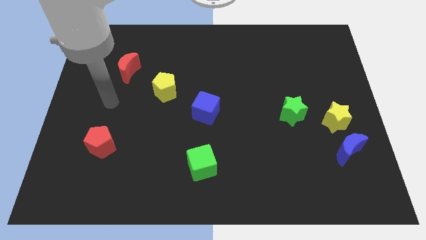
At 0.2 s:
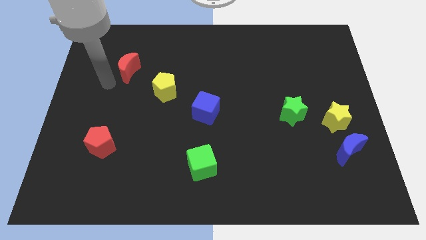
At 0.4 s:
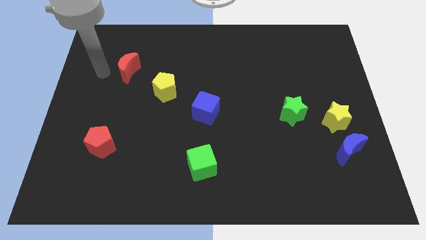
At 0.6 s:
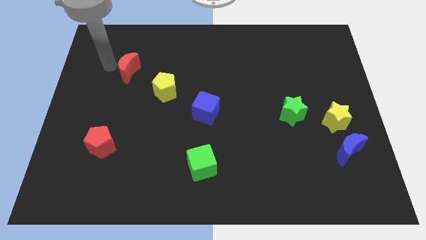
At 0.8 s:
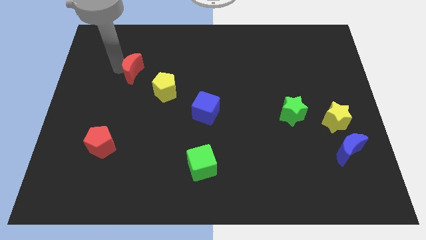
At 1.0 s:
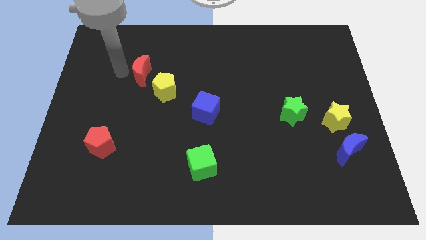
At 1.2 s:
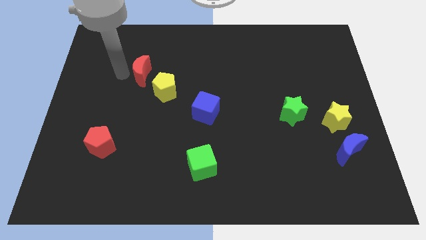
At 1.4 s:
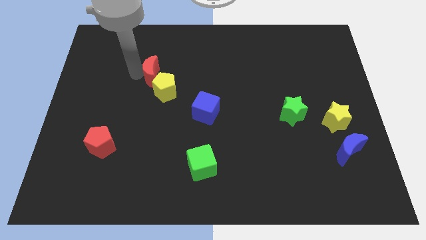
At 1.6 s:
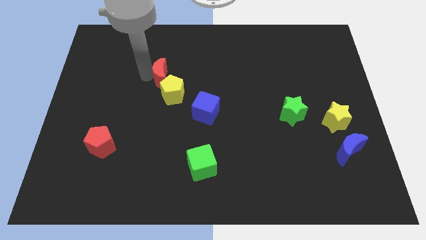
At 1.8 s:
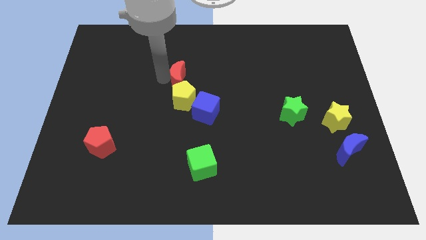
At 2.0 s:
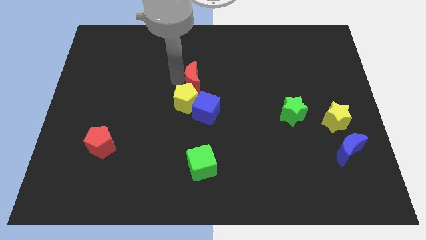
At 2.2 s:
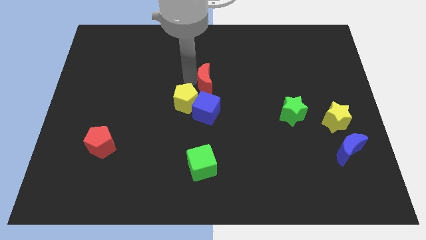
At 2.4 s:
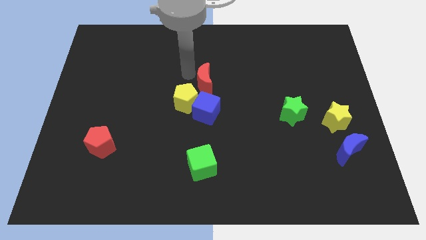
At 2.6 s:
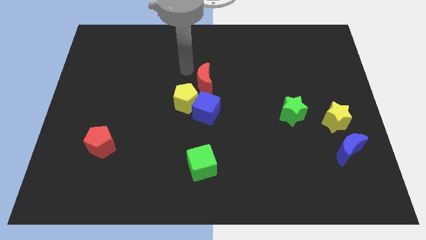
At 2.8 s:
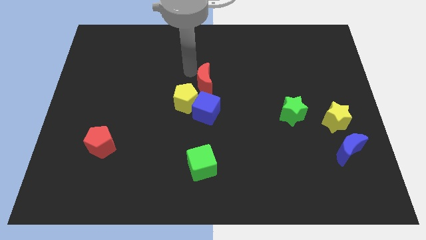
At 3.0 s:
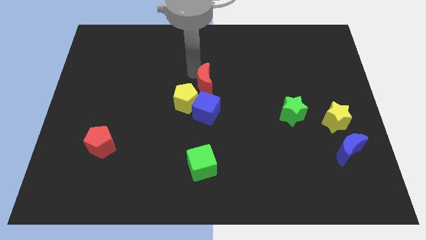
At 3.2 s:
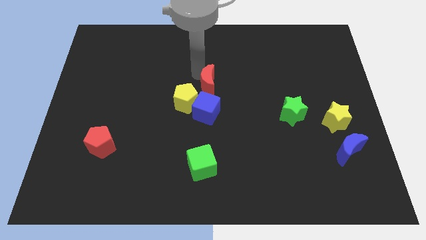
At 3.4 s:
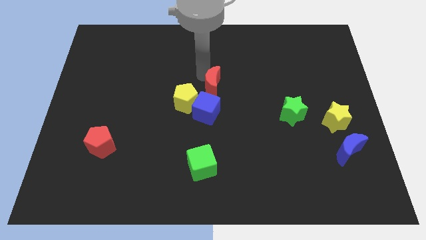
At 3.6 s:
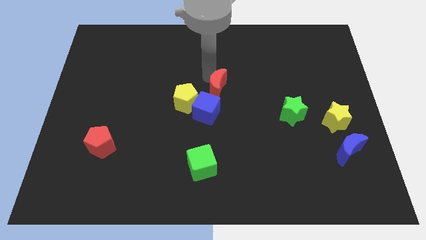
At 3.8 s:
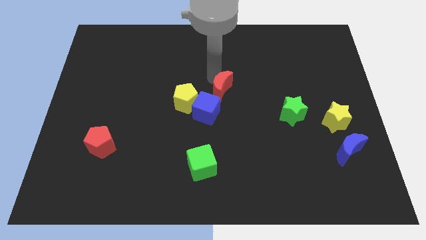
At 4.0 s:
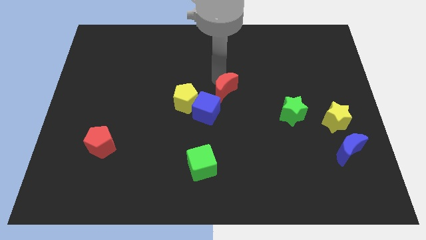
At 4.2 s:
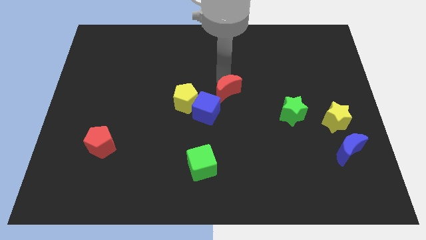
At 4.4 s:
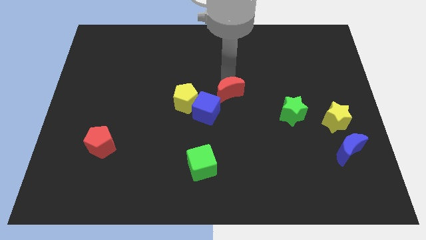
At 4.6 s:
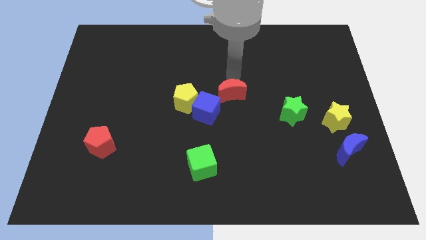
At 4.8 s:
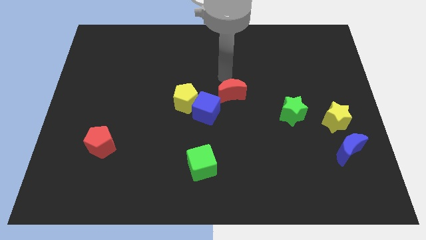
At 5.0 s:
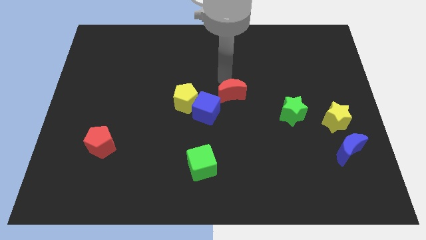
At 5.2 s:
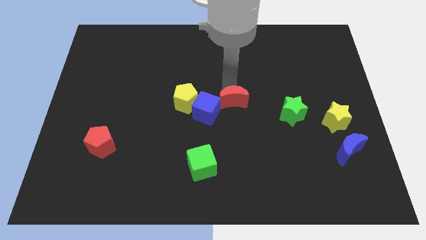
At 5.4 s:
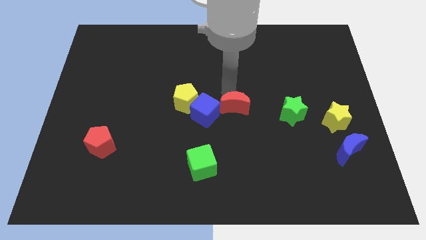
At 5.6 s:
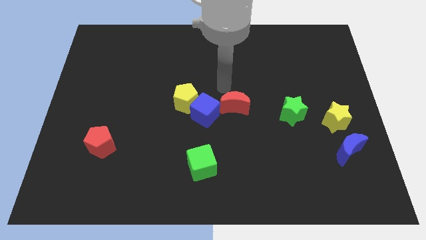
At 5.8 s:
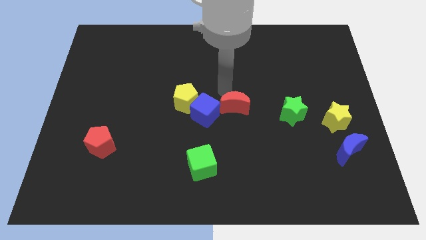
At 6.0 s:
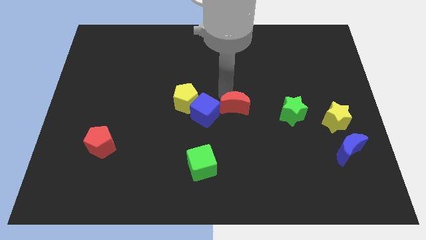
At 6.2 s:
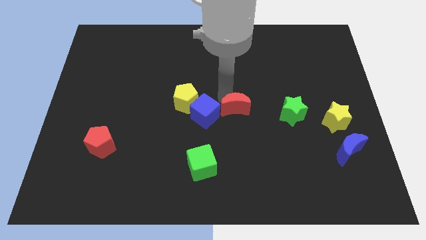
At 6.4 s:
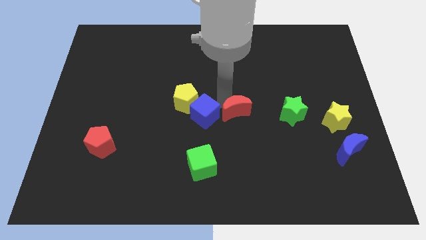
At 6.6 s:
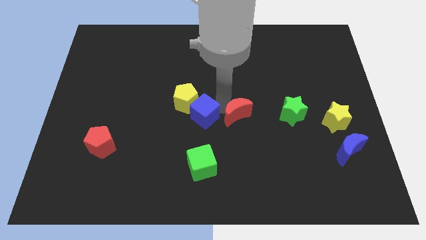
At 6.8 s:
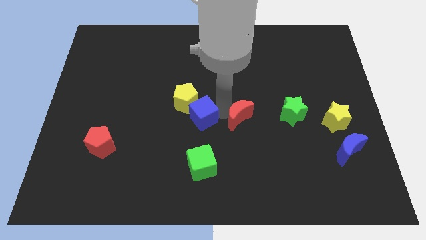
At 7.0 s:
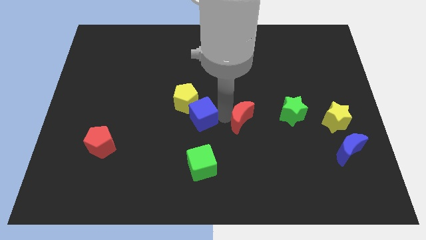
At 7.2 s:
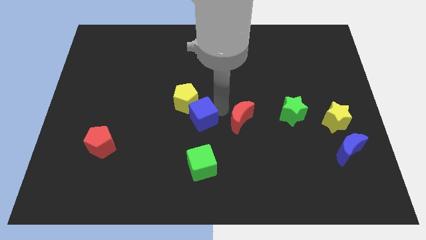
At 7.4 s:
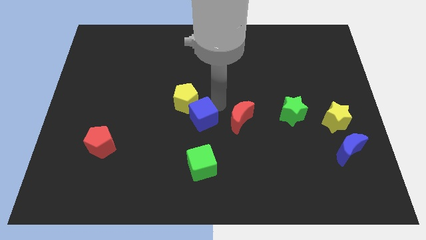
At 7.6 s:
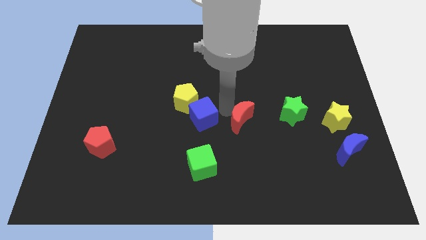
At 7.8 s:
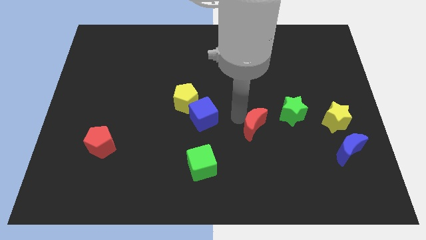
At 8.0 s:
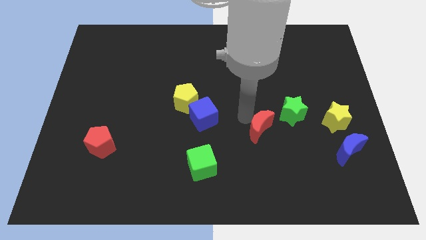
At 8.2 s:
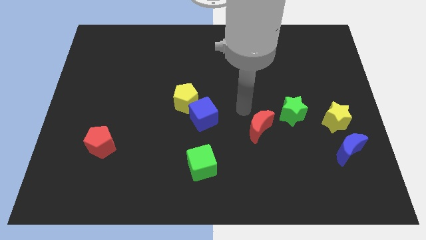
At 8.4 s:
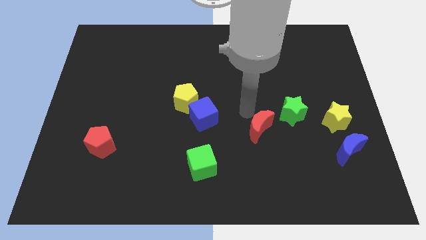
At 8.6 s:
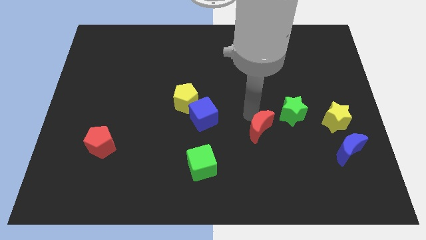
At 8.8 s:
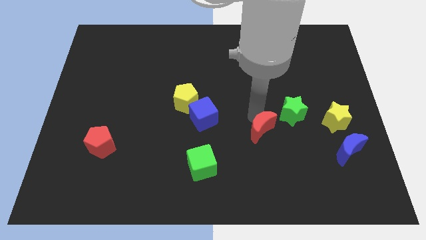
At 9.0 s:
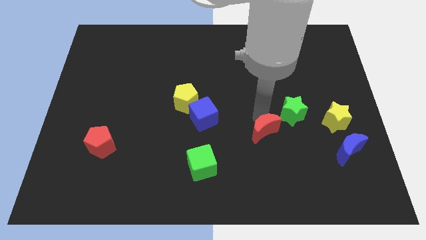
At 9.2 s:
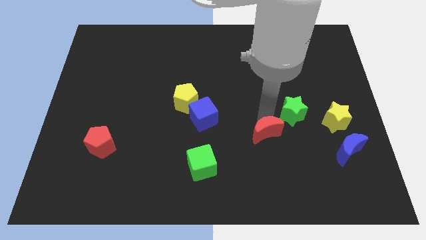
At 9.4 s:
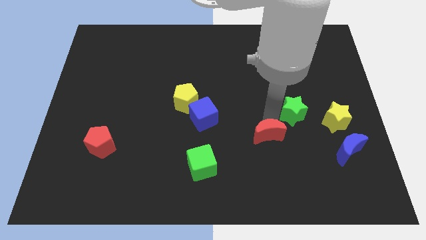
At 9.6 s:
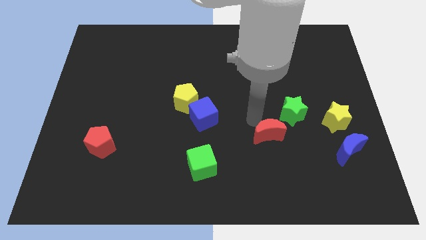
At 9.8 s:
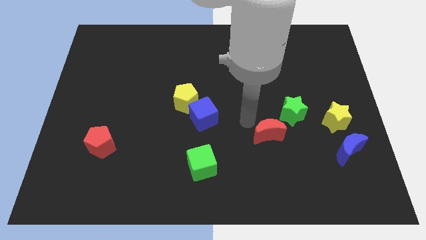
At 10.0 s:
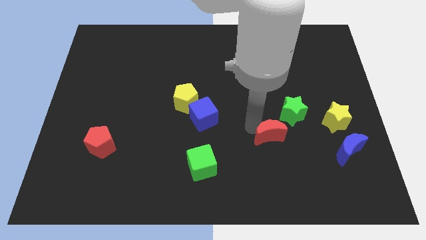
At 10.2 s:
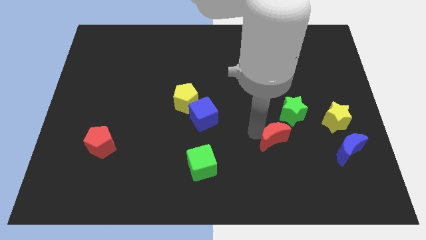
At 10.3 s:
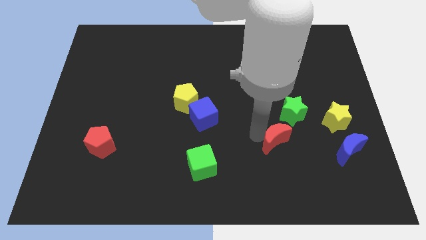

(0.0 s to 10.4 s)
put the red moon to the bottom side of the green star

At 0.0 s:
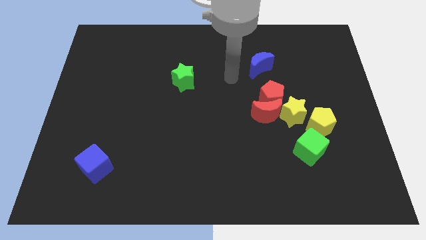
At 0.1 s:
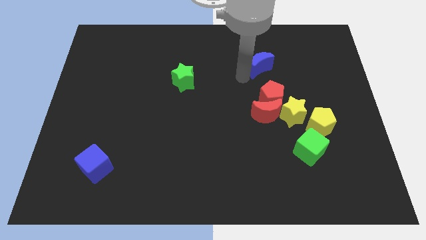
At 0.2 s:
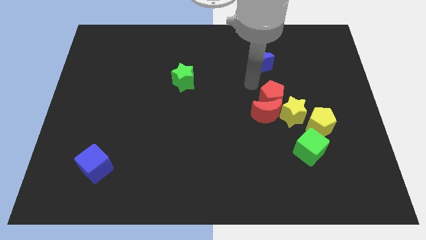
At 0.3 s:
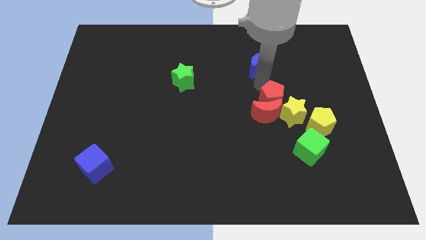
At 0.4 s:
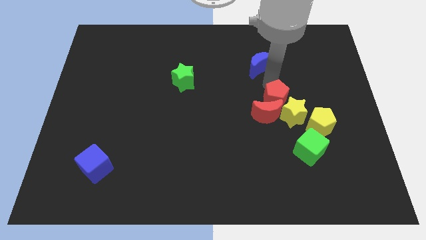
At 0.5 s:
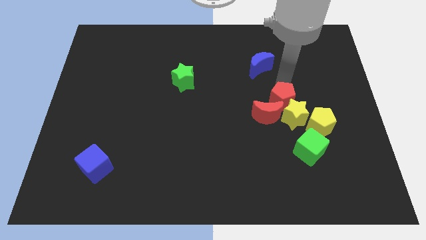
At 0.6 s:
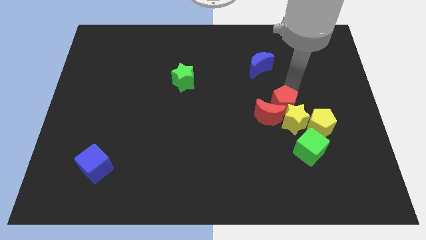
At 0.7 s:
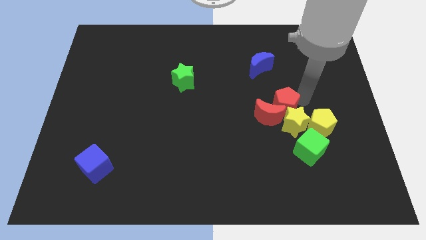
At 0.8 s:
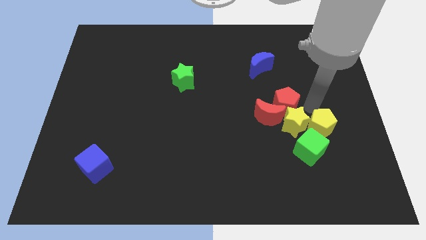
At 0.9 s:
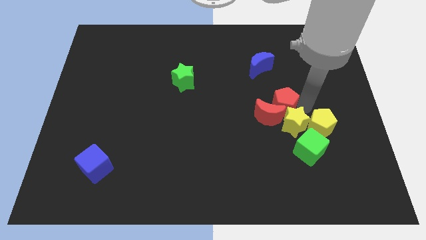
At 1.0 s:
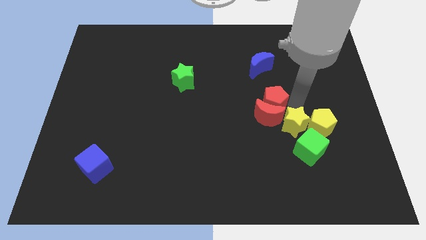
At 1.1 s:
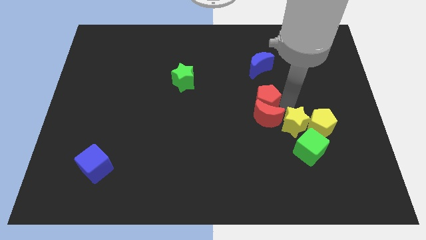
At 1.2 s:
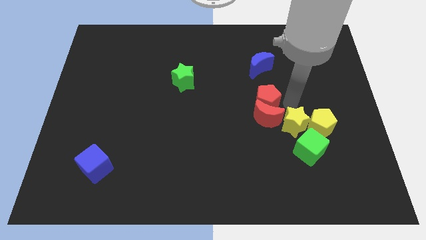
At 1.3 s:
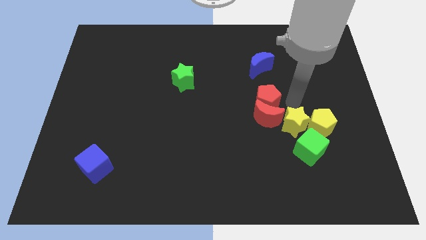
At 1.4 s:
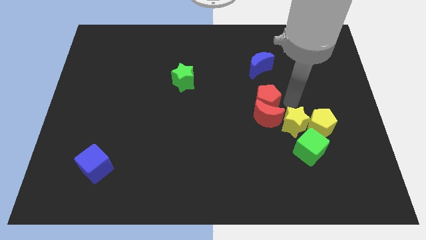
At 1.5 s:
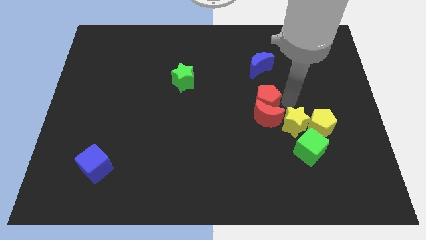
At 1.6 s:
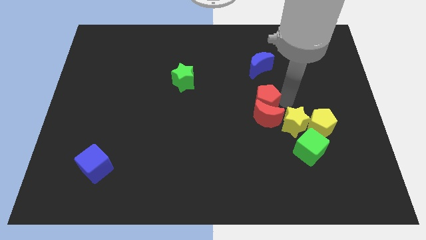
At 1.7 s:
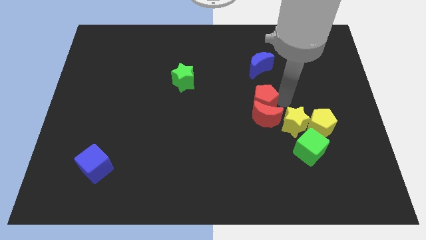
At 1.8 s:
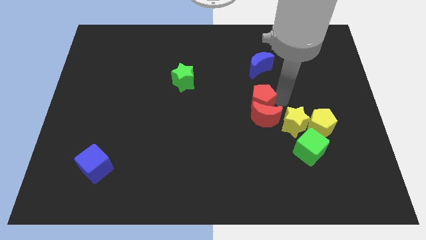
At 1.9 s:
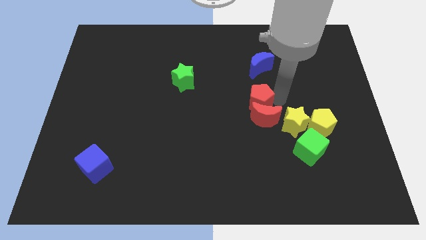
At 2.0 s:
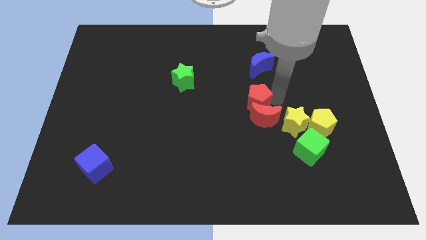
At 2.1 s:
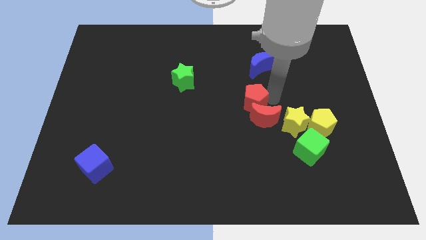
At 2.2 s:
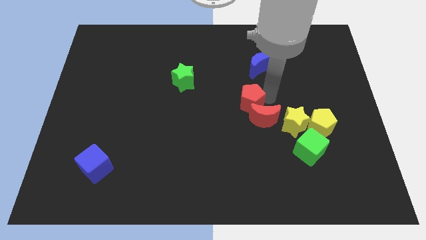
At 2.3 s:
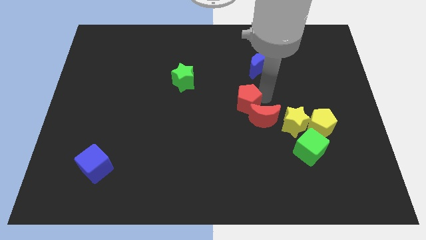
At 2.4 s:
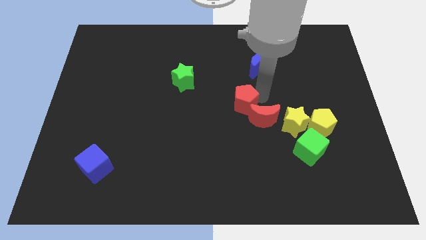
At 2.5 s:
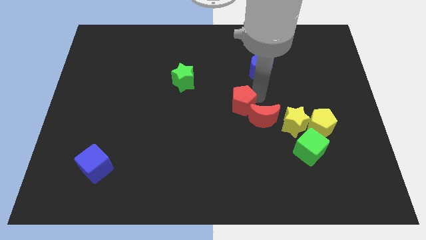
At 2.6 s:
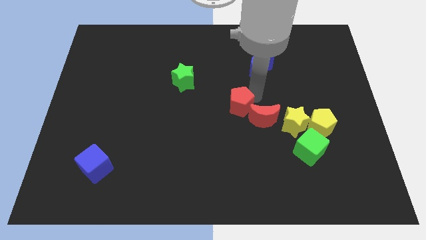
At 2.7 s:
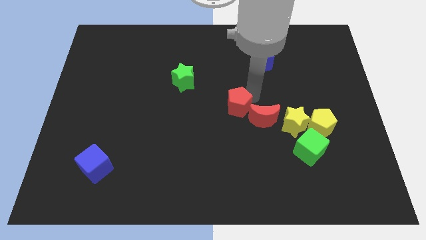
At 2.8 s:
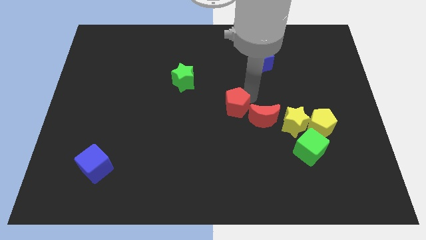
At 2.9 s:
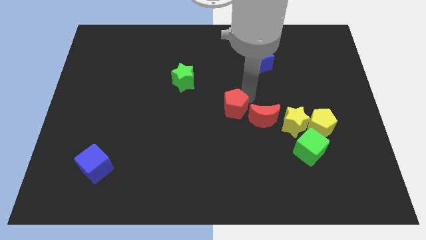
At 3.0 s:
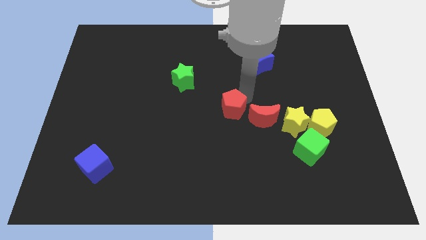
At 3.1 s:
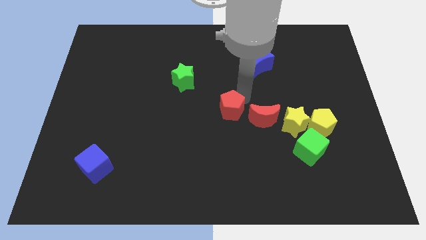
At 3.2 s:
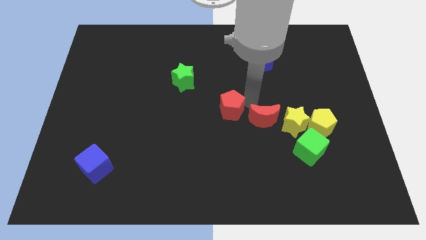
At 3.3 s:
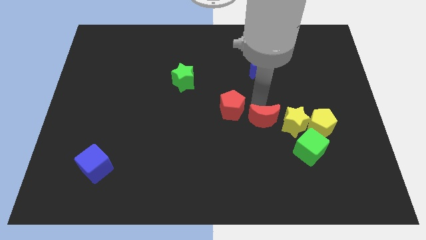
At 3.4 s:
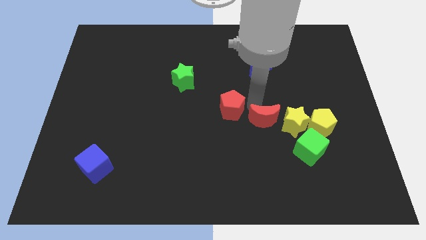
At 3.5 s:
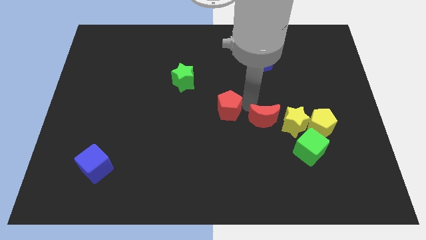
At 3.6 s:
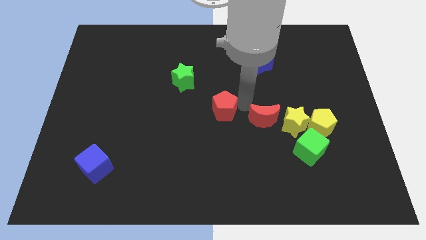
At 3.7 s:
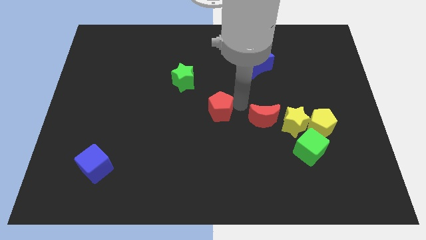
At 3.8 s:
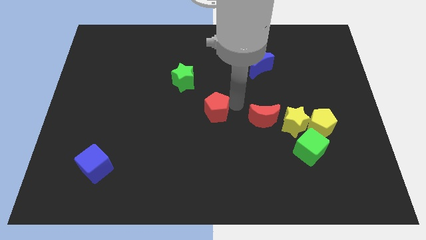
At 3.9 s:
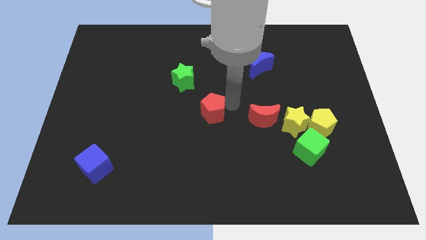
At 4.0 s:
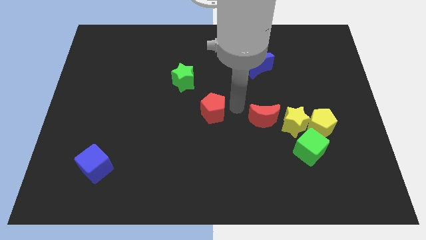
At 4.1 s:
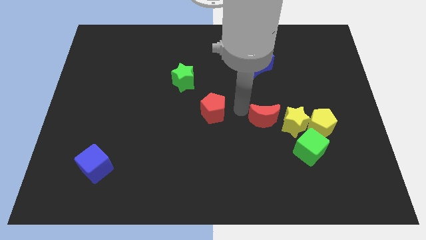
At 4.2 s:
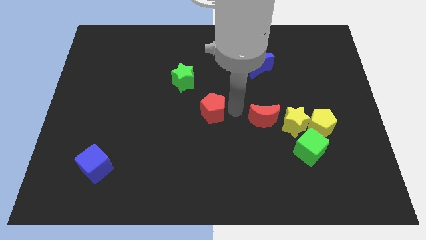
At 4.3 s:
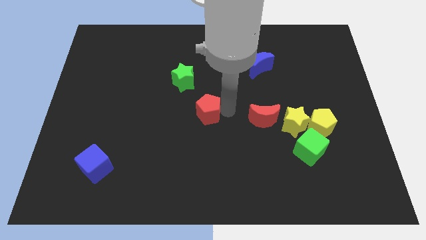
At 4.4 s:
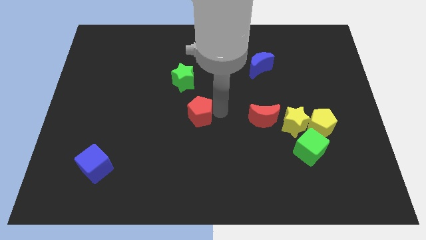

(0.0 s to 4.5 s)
push the red pentagon to the bottom side of the green star
